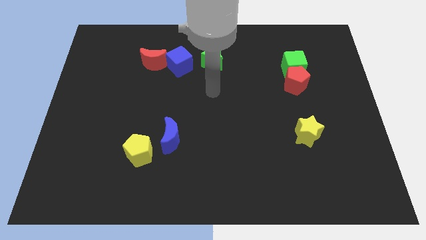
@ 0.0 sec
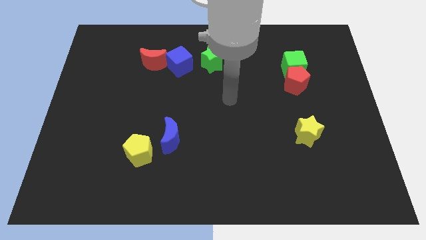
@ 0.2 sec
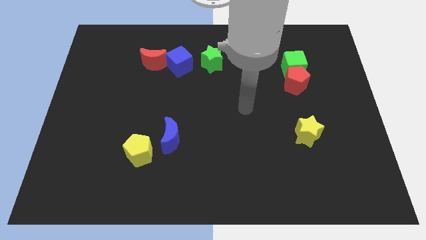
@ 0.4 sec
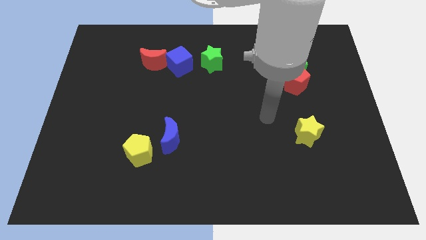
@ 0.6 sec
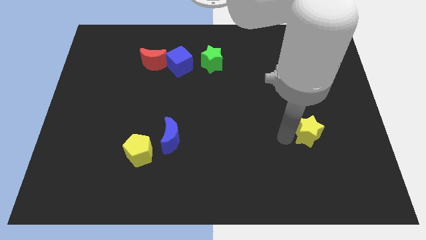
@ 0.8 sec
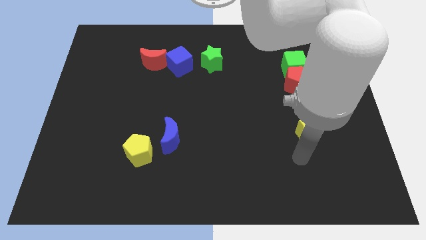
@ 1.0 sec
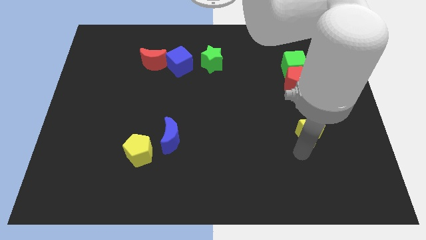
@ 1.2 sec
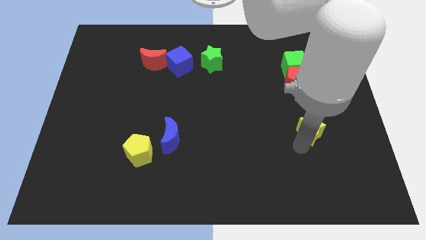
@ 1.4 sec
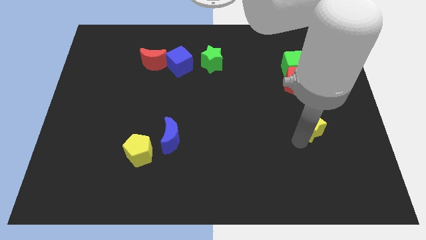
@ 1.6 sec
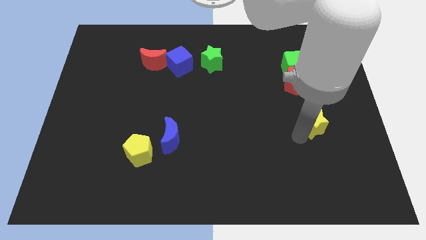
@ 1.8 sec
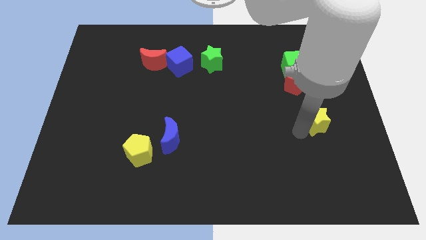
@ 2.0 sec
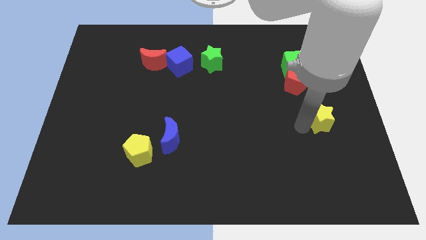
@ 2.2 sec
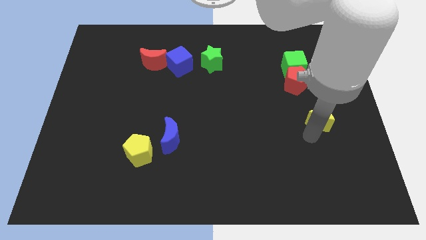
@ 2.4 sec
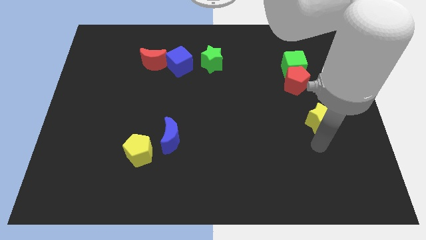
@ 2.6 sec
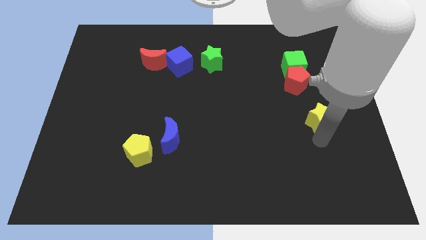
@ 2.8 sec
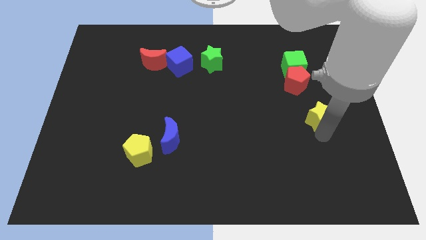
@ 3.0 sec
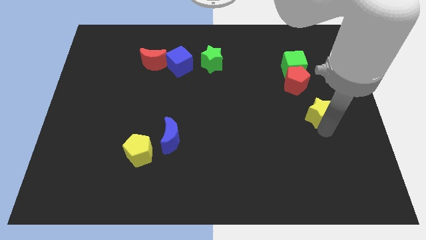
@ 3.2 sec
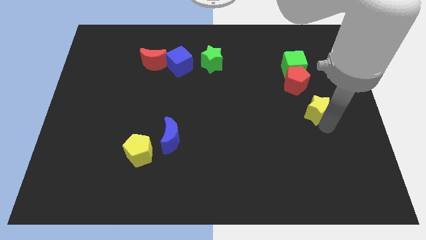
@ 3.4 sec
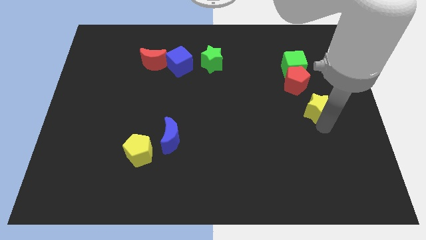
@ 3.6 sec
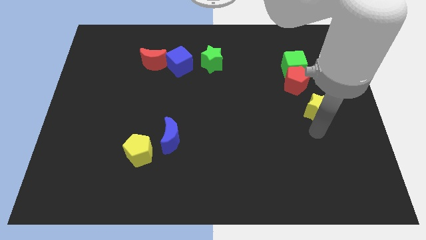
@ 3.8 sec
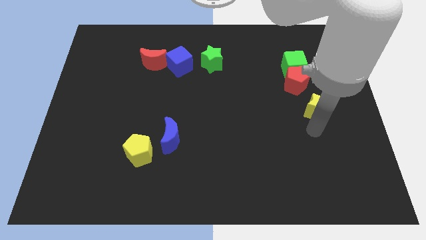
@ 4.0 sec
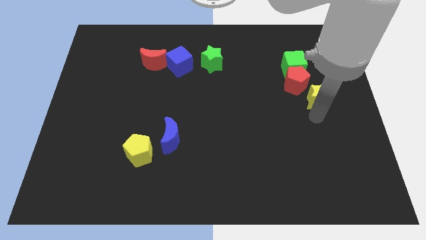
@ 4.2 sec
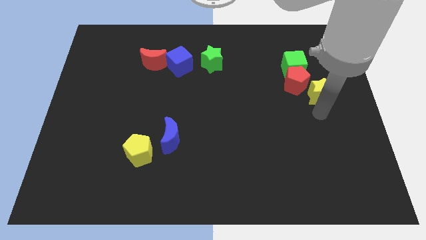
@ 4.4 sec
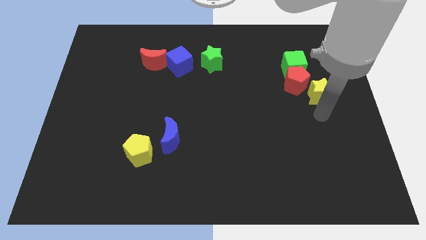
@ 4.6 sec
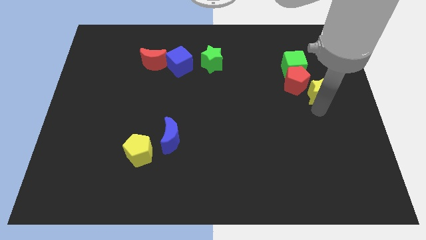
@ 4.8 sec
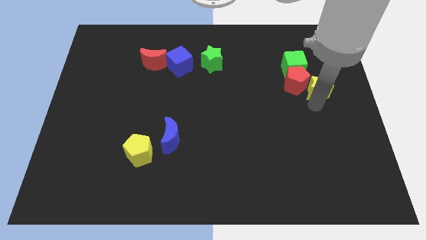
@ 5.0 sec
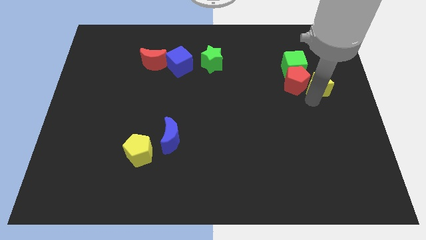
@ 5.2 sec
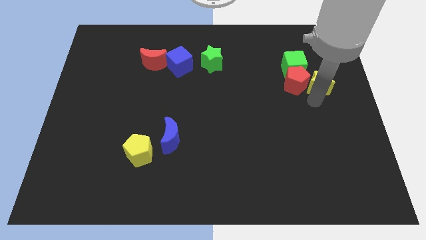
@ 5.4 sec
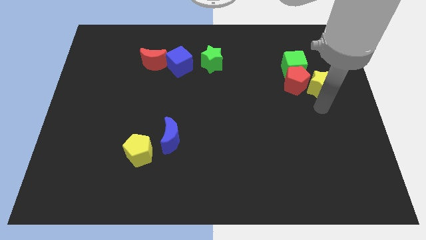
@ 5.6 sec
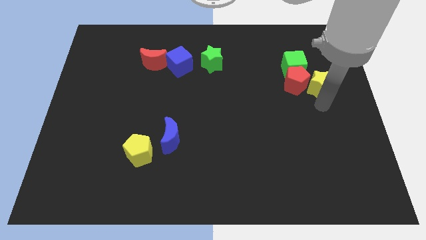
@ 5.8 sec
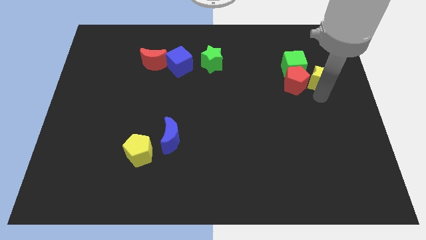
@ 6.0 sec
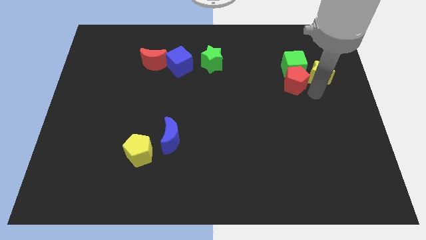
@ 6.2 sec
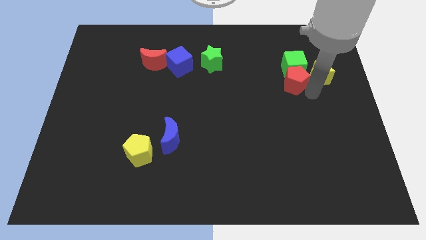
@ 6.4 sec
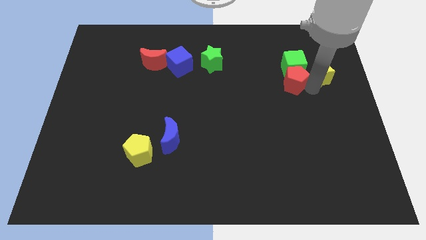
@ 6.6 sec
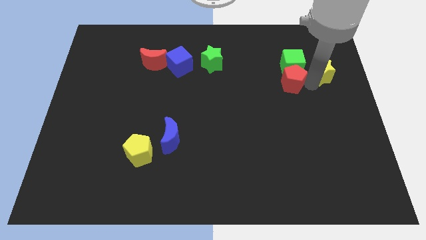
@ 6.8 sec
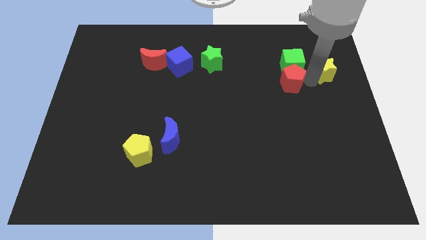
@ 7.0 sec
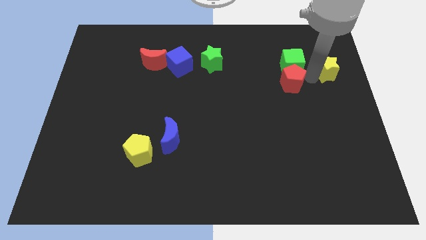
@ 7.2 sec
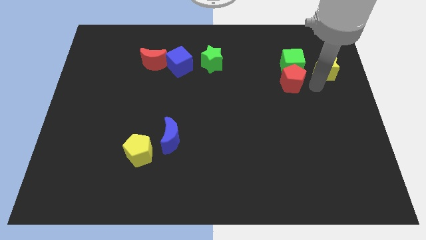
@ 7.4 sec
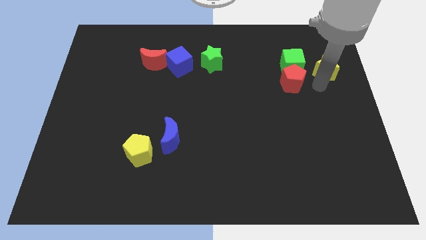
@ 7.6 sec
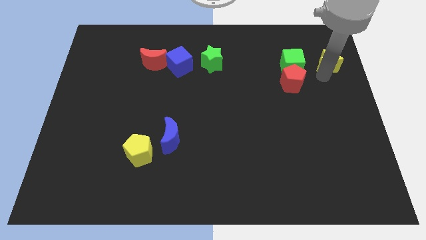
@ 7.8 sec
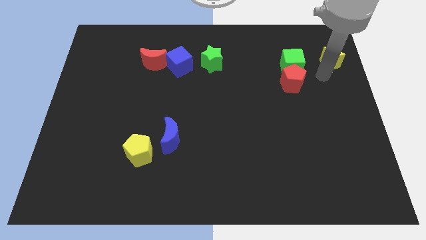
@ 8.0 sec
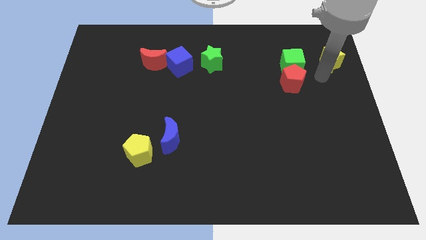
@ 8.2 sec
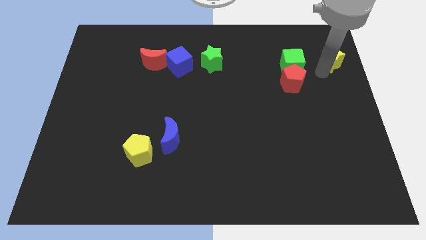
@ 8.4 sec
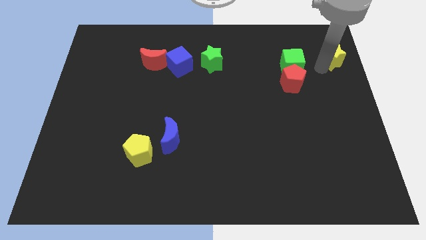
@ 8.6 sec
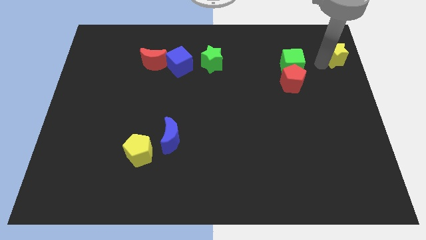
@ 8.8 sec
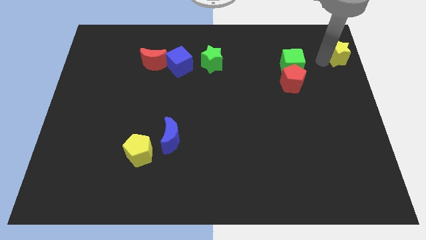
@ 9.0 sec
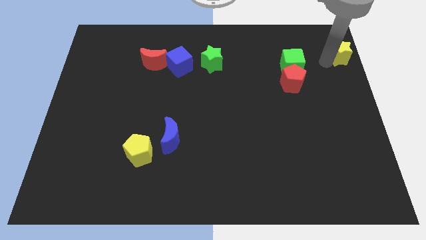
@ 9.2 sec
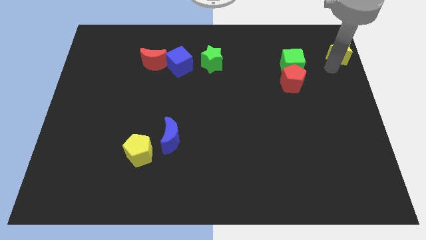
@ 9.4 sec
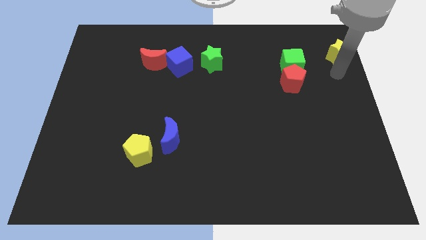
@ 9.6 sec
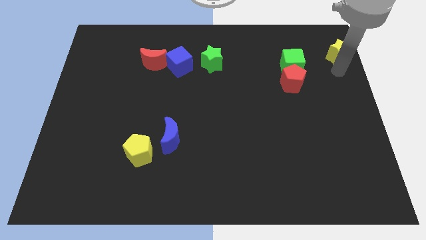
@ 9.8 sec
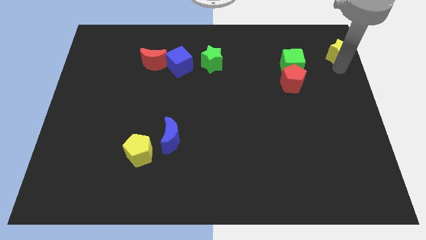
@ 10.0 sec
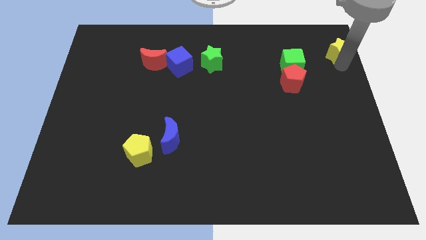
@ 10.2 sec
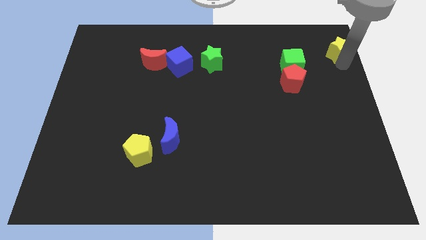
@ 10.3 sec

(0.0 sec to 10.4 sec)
push the yellow star to the top right of the board
